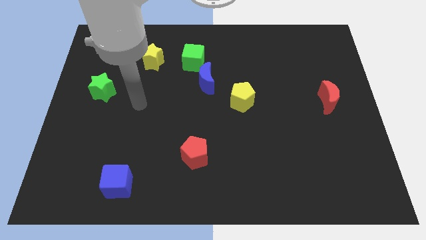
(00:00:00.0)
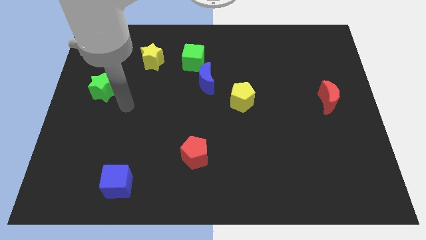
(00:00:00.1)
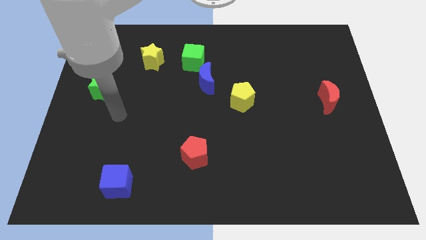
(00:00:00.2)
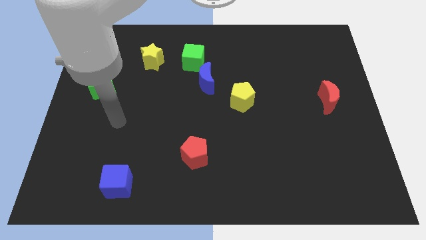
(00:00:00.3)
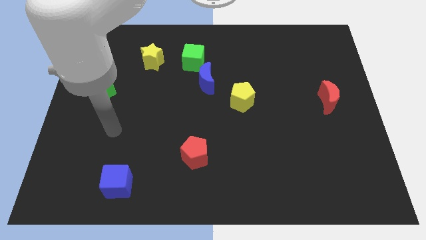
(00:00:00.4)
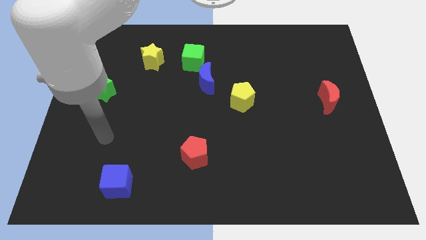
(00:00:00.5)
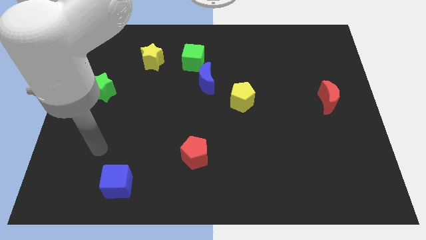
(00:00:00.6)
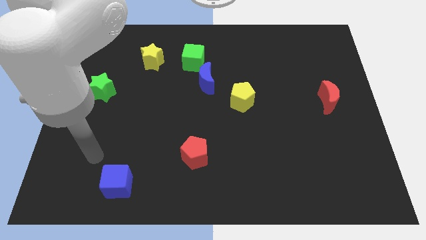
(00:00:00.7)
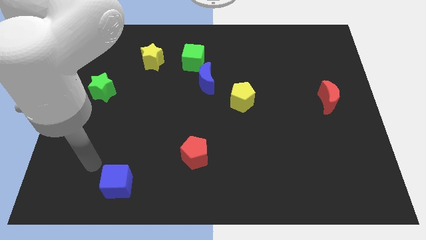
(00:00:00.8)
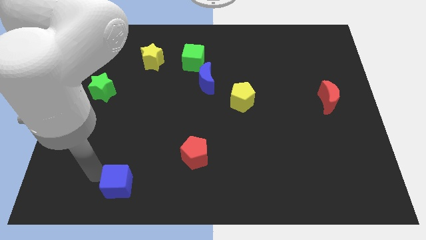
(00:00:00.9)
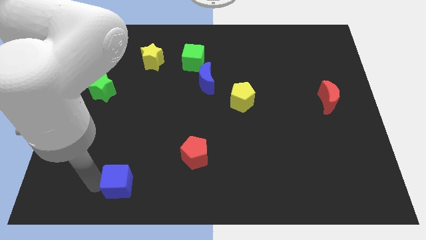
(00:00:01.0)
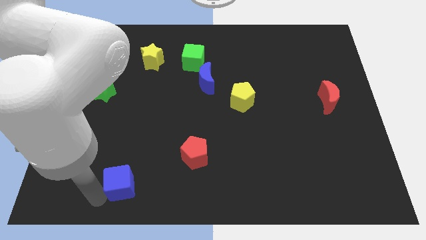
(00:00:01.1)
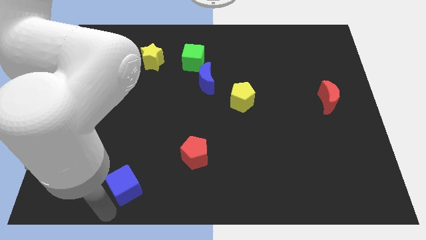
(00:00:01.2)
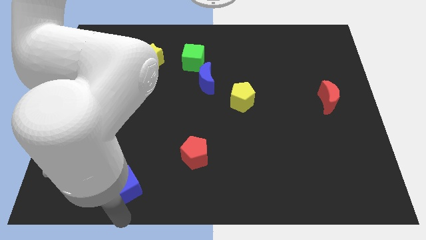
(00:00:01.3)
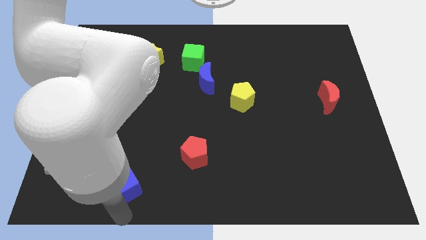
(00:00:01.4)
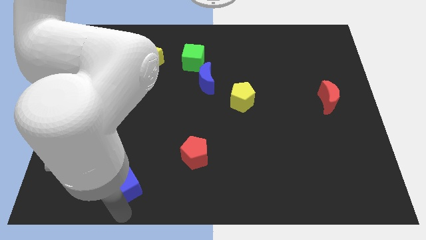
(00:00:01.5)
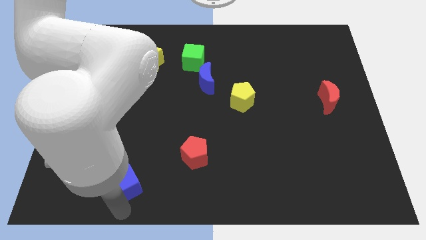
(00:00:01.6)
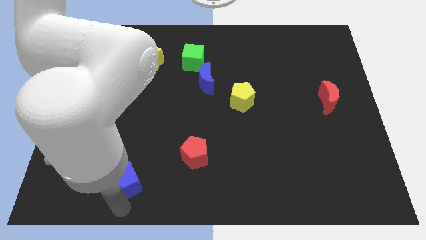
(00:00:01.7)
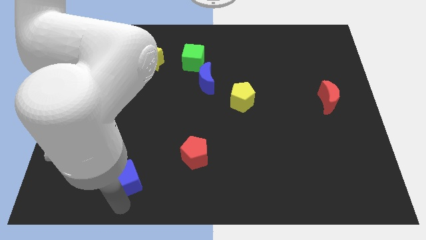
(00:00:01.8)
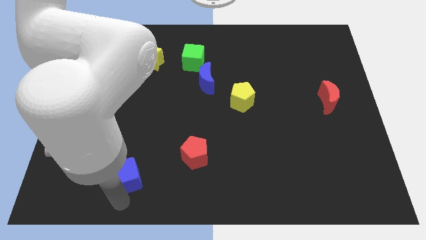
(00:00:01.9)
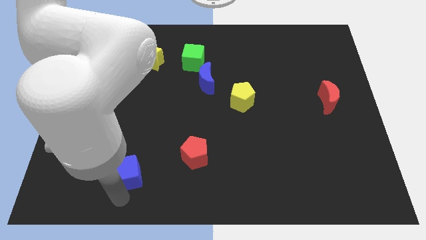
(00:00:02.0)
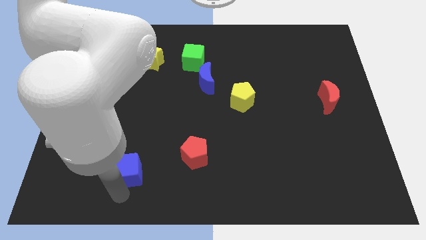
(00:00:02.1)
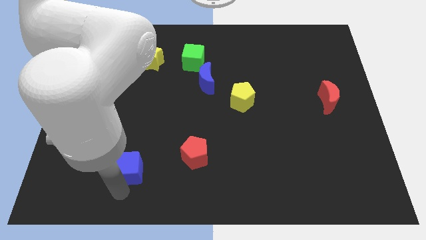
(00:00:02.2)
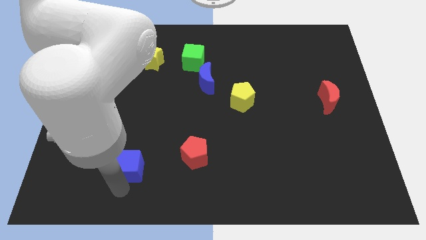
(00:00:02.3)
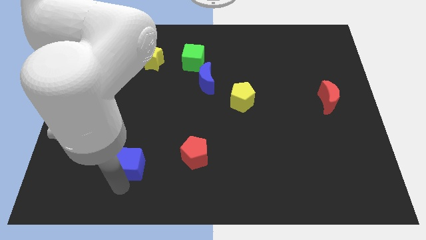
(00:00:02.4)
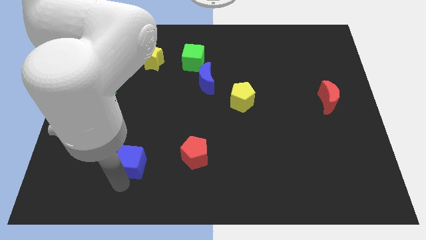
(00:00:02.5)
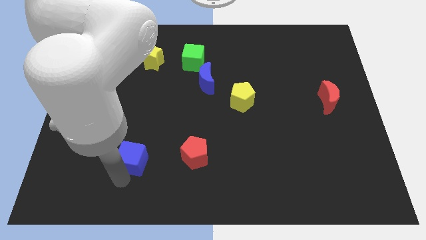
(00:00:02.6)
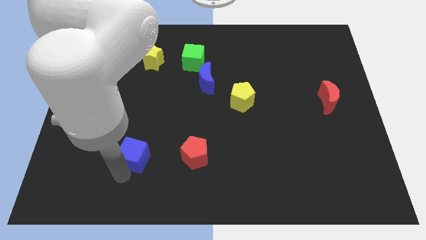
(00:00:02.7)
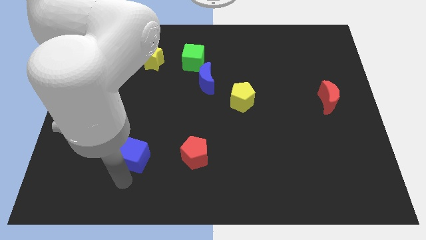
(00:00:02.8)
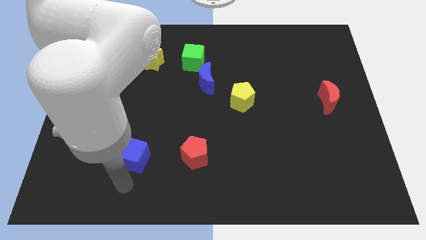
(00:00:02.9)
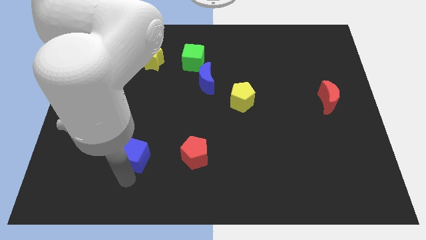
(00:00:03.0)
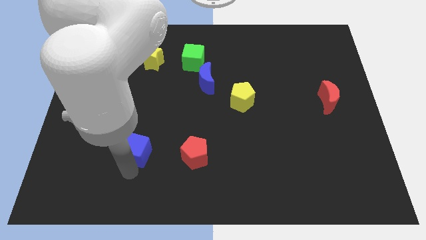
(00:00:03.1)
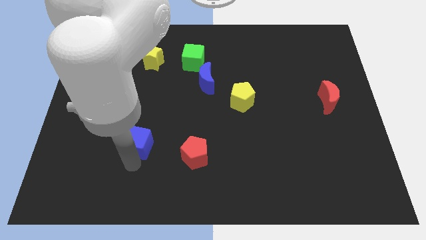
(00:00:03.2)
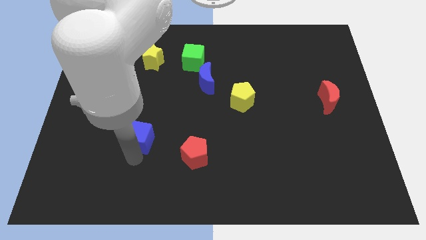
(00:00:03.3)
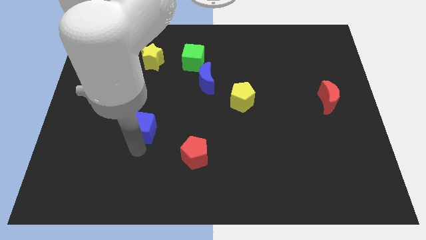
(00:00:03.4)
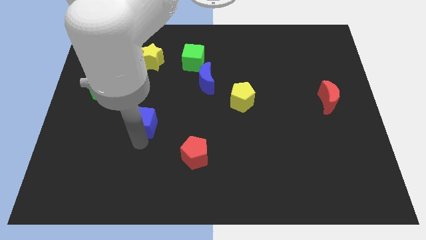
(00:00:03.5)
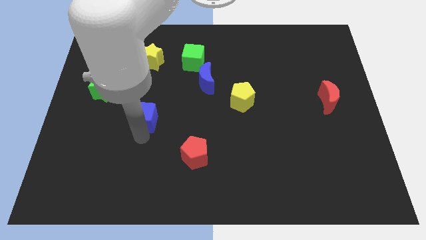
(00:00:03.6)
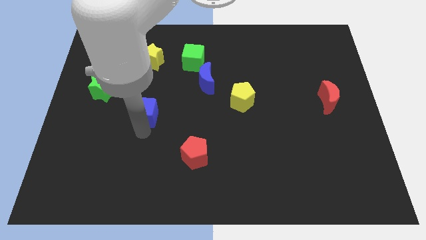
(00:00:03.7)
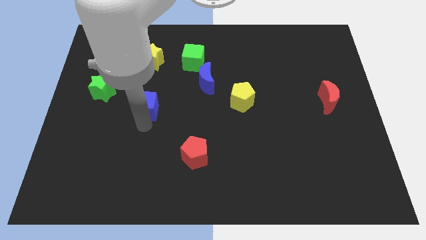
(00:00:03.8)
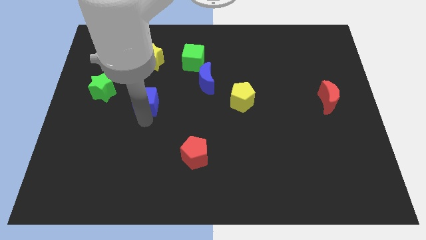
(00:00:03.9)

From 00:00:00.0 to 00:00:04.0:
slide the blue cube upwards

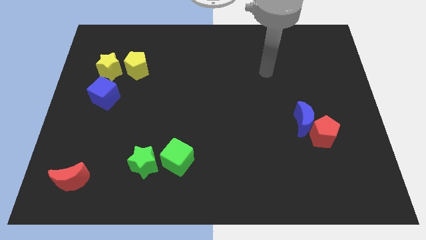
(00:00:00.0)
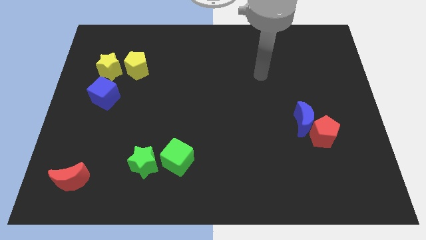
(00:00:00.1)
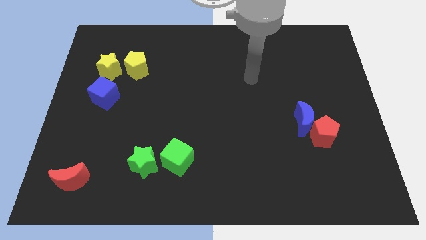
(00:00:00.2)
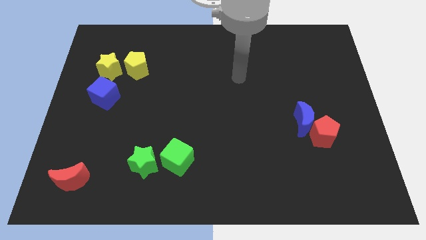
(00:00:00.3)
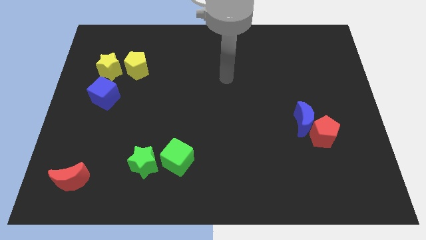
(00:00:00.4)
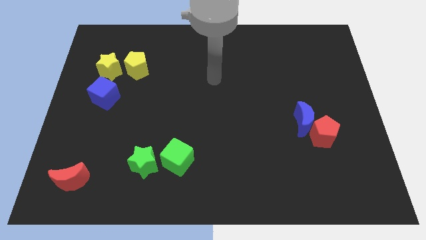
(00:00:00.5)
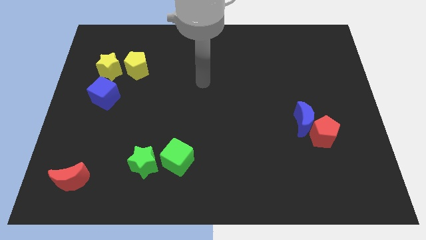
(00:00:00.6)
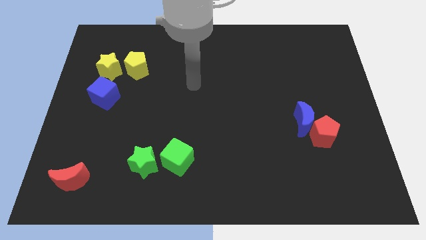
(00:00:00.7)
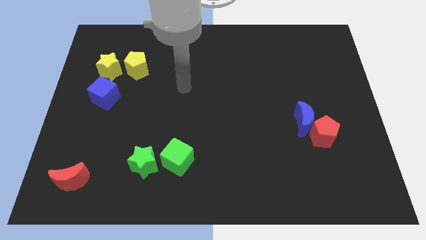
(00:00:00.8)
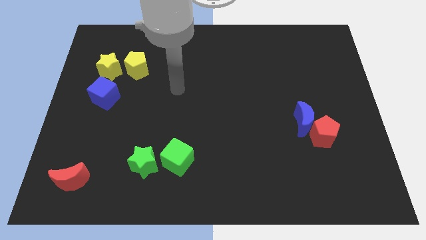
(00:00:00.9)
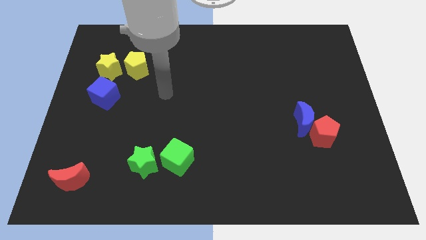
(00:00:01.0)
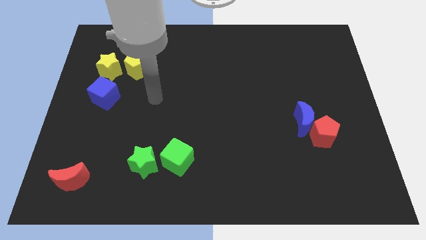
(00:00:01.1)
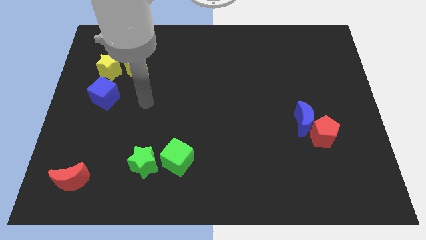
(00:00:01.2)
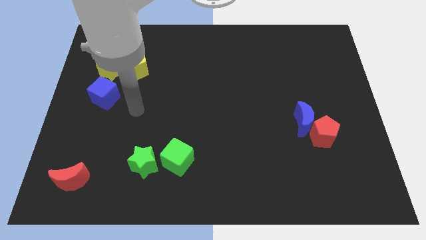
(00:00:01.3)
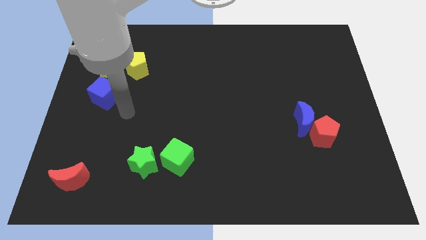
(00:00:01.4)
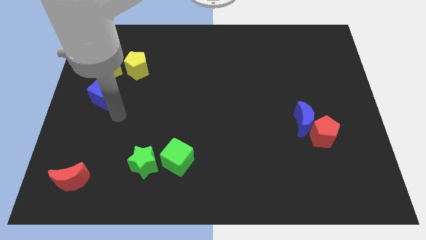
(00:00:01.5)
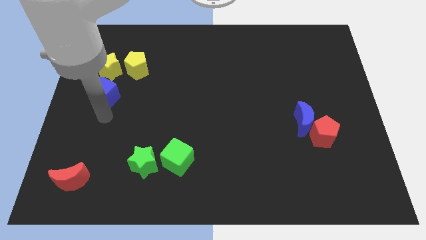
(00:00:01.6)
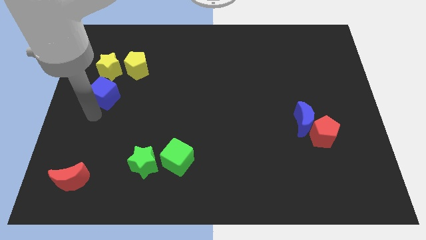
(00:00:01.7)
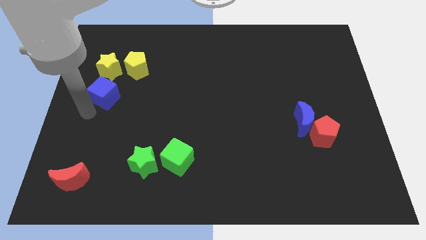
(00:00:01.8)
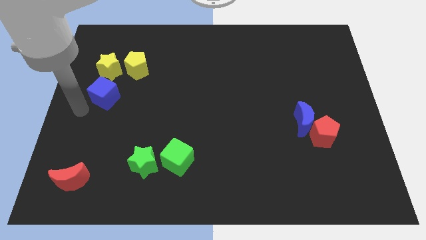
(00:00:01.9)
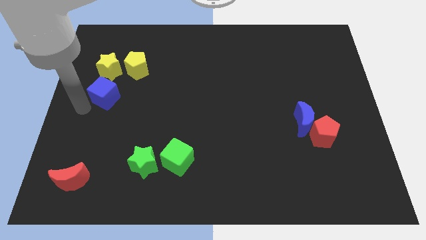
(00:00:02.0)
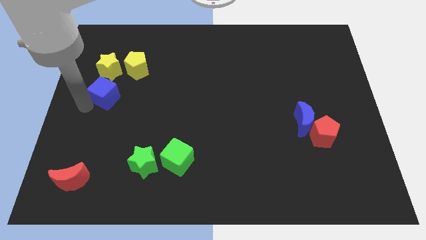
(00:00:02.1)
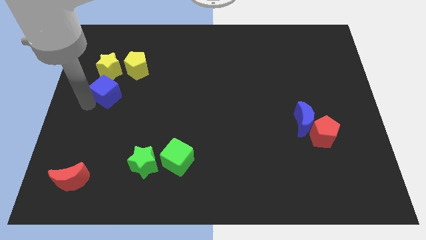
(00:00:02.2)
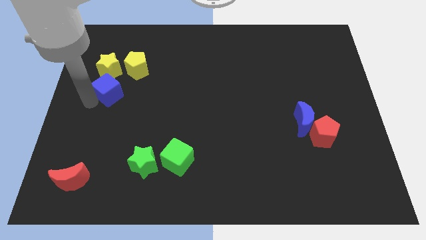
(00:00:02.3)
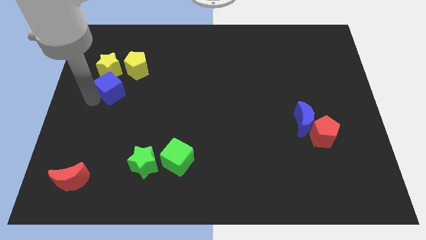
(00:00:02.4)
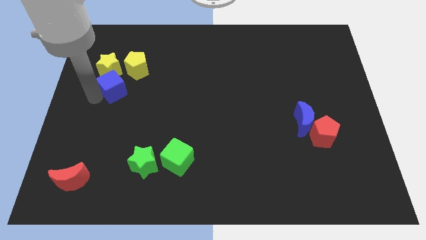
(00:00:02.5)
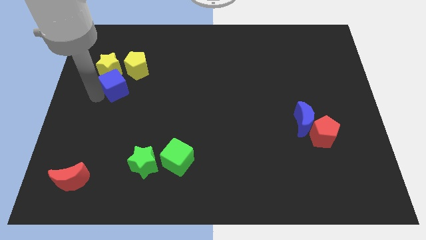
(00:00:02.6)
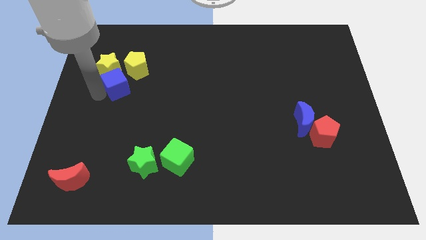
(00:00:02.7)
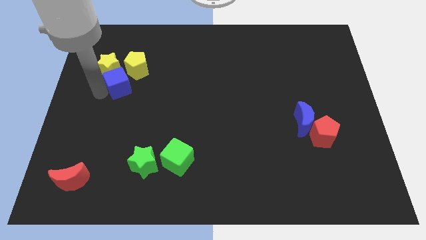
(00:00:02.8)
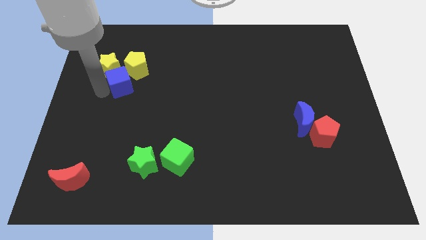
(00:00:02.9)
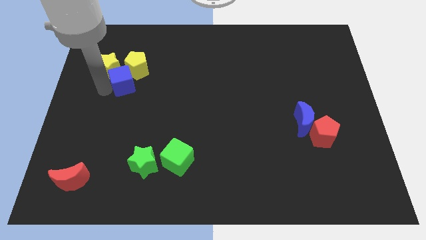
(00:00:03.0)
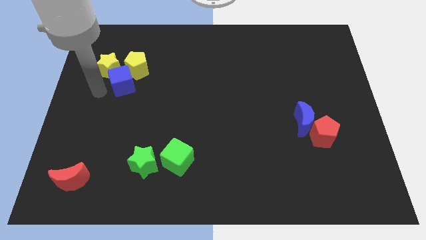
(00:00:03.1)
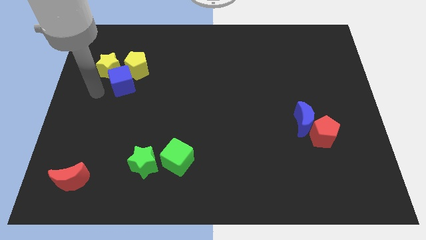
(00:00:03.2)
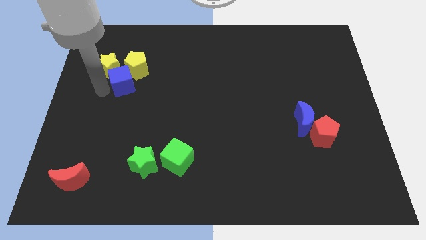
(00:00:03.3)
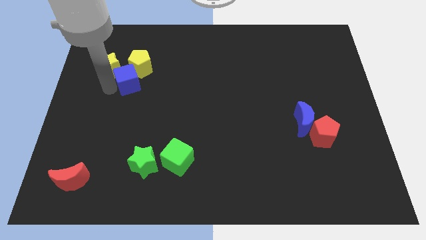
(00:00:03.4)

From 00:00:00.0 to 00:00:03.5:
slightly slide the blue cube up and then right

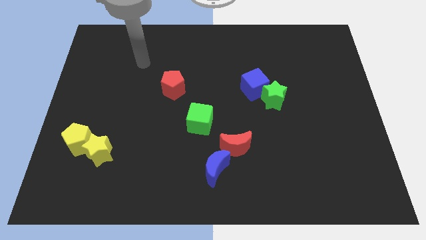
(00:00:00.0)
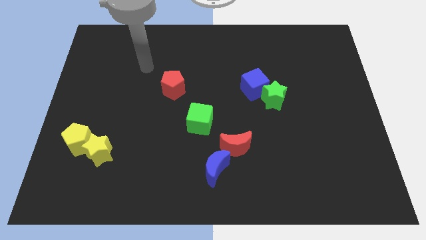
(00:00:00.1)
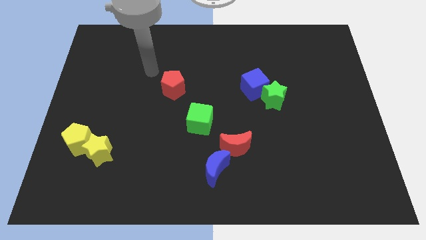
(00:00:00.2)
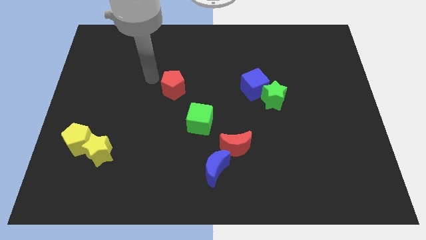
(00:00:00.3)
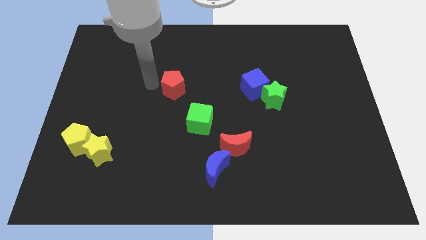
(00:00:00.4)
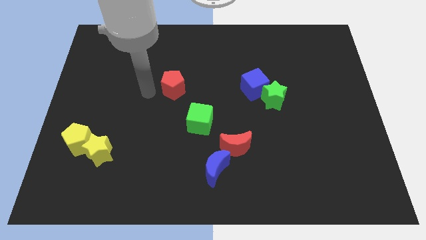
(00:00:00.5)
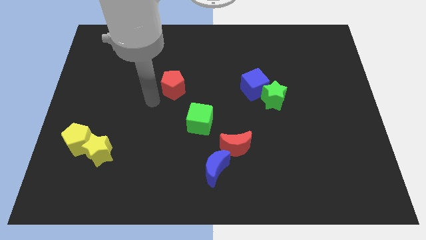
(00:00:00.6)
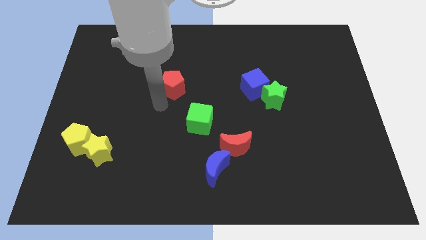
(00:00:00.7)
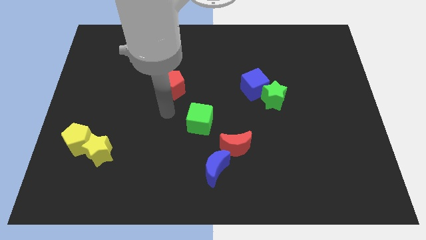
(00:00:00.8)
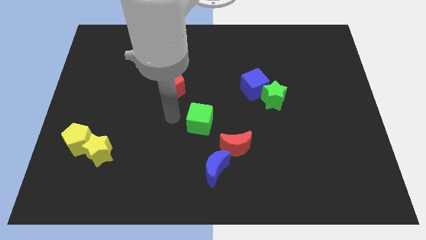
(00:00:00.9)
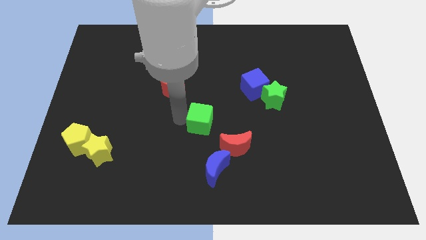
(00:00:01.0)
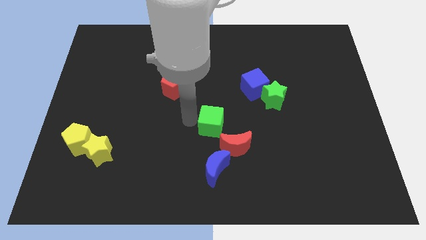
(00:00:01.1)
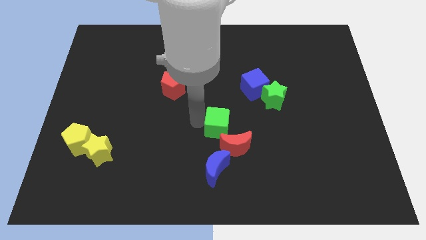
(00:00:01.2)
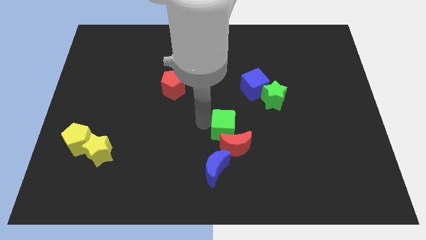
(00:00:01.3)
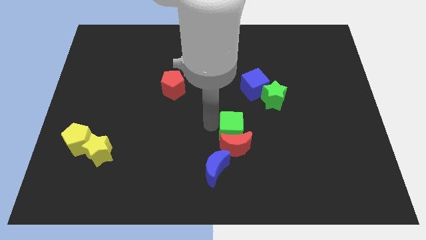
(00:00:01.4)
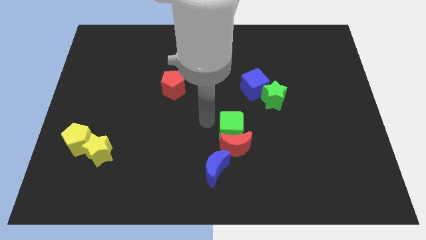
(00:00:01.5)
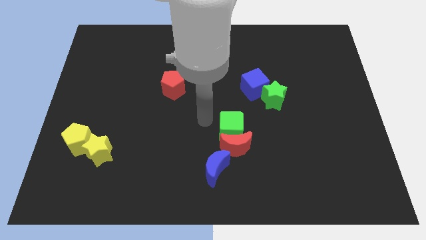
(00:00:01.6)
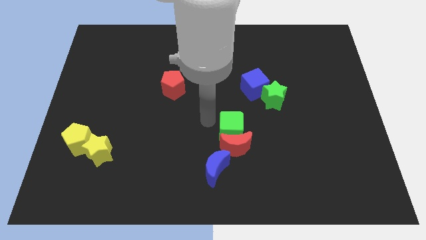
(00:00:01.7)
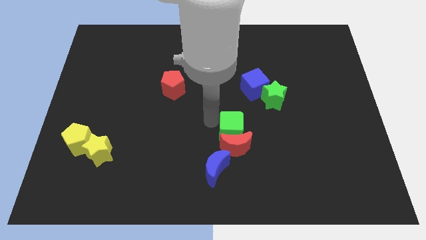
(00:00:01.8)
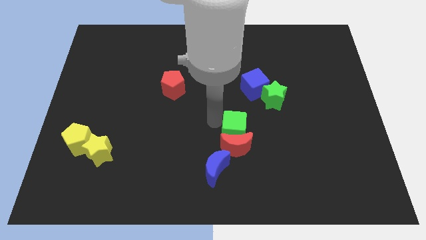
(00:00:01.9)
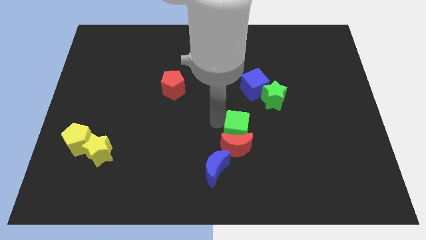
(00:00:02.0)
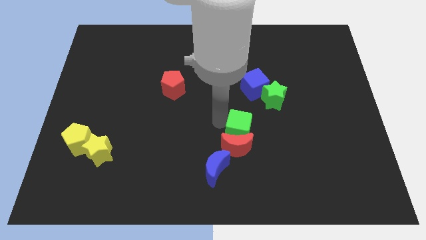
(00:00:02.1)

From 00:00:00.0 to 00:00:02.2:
slightly push the green cube down and right
